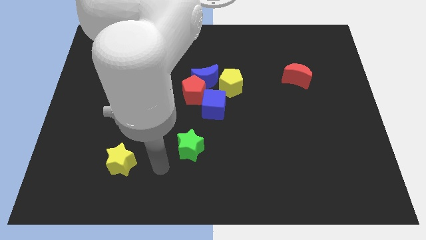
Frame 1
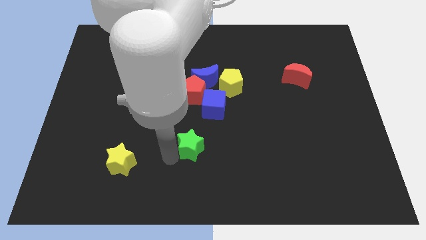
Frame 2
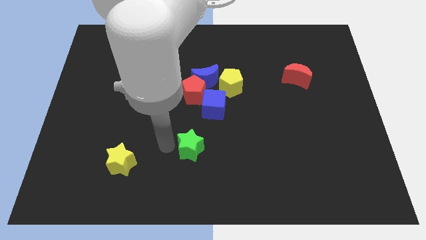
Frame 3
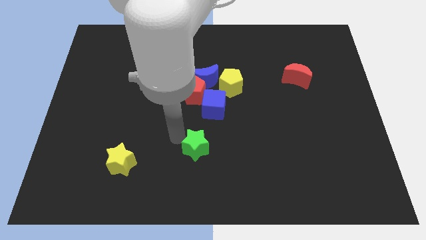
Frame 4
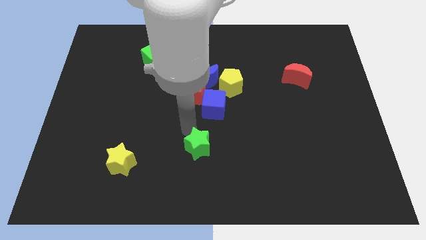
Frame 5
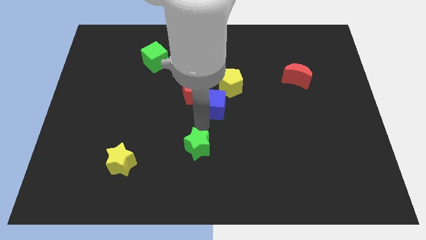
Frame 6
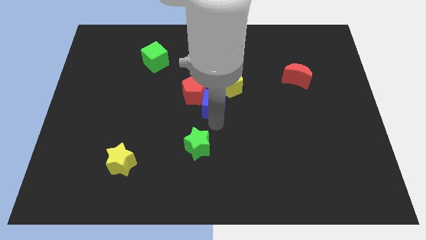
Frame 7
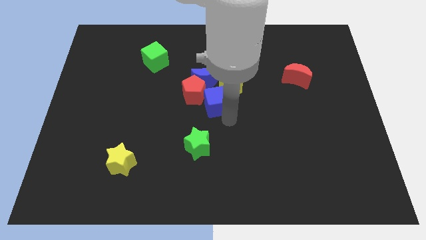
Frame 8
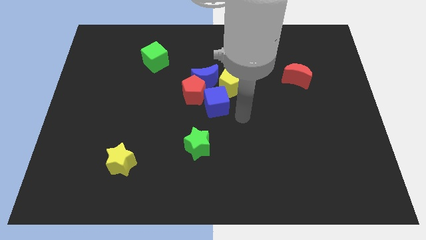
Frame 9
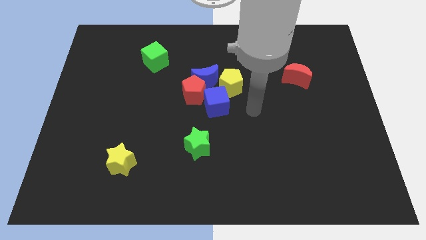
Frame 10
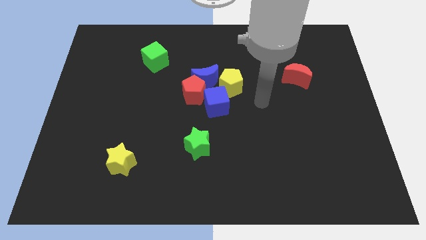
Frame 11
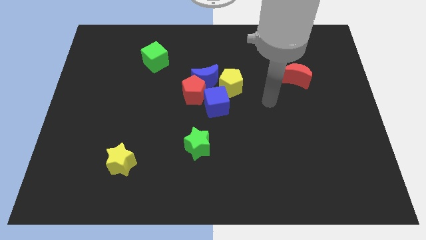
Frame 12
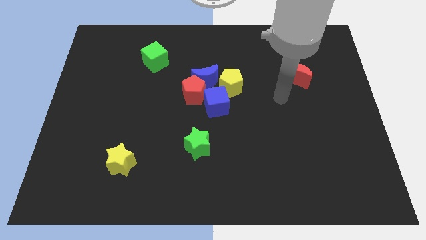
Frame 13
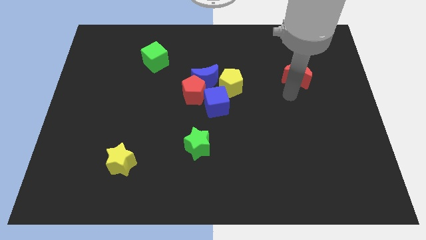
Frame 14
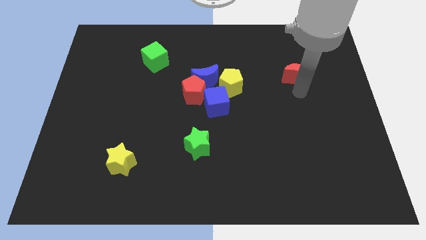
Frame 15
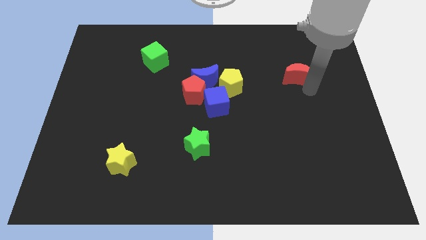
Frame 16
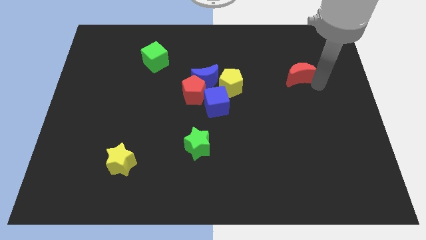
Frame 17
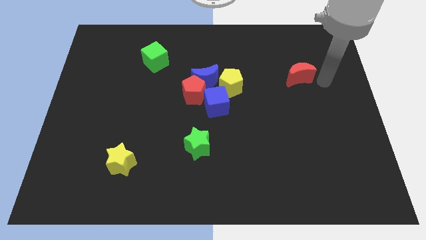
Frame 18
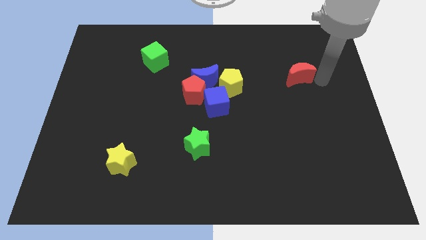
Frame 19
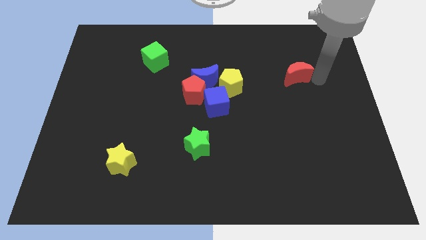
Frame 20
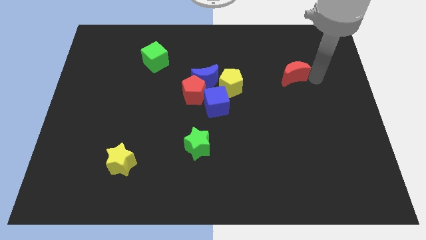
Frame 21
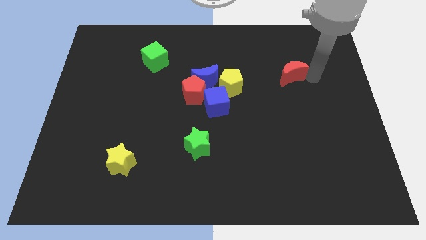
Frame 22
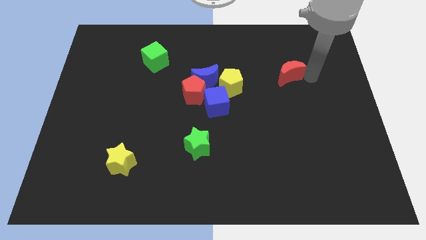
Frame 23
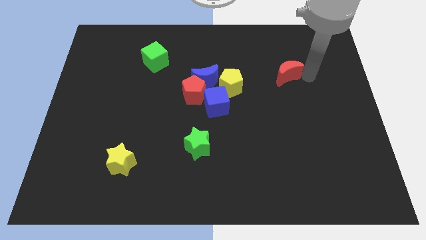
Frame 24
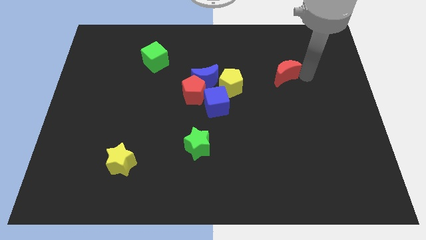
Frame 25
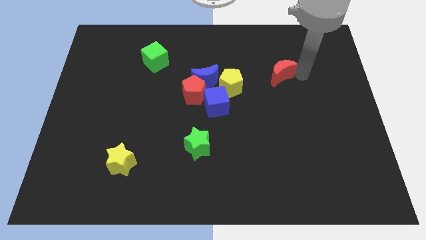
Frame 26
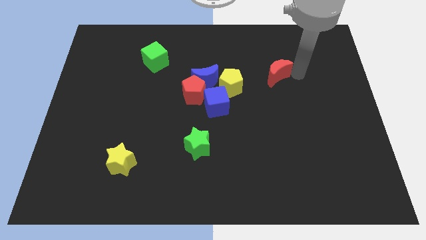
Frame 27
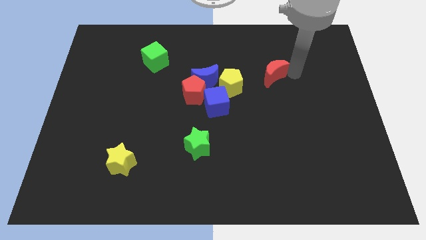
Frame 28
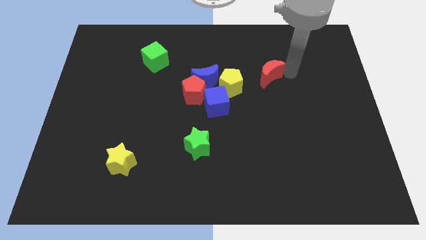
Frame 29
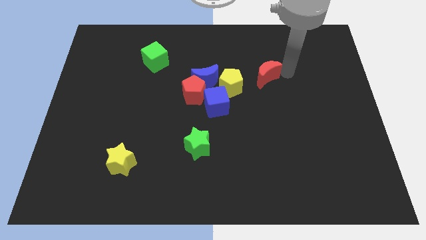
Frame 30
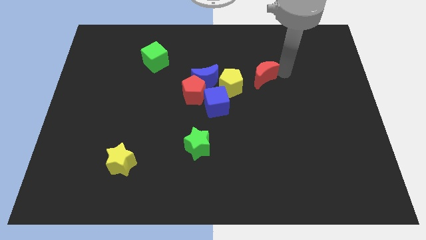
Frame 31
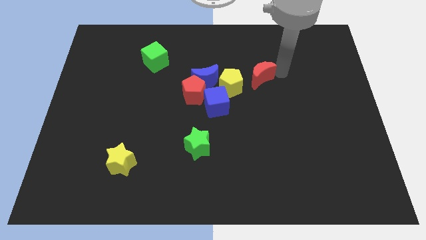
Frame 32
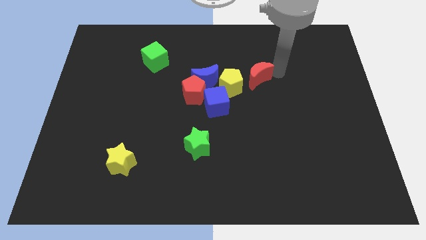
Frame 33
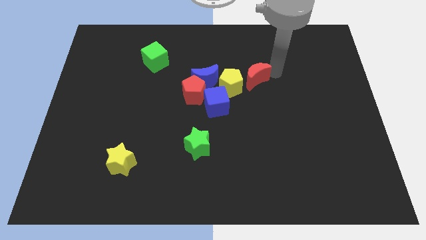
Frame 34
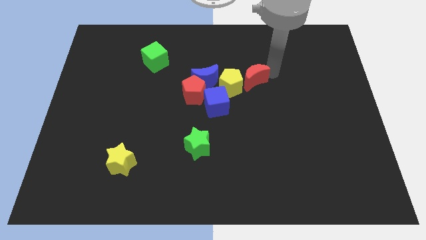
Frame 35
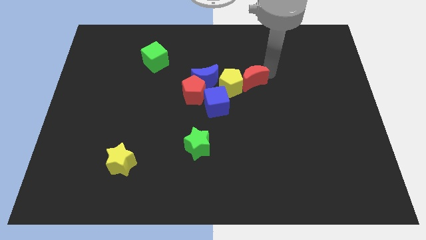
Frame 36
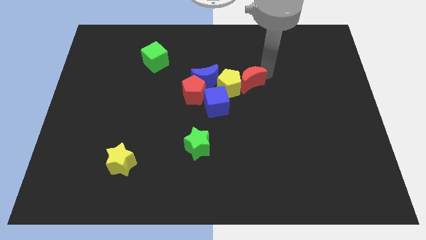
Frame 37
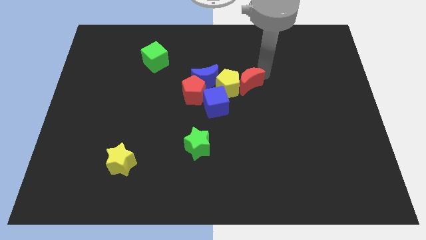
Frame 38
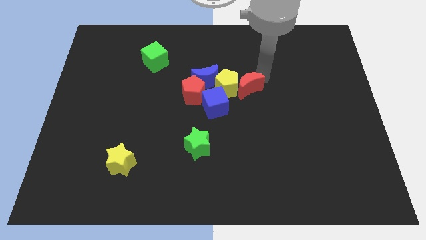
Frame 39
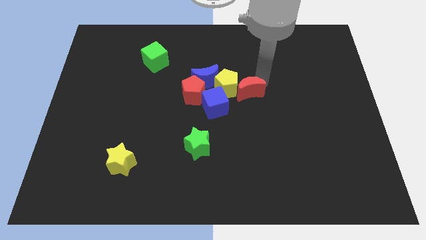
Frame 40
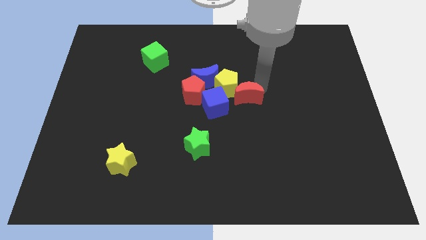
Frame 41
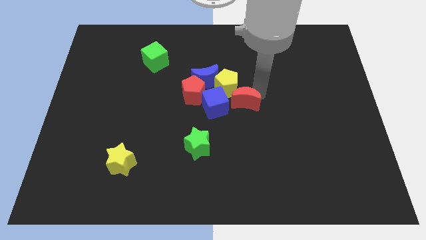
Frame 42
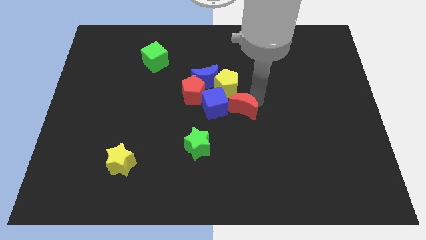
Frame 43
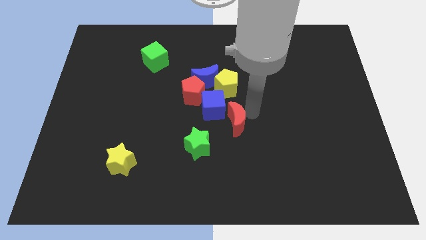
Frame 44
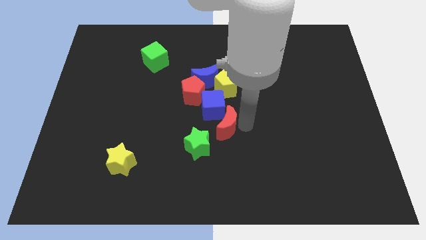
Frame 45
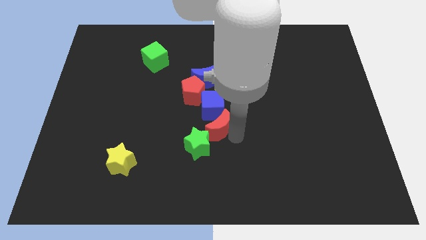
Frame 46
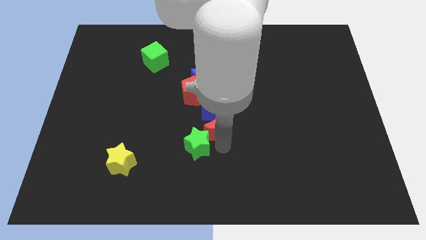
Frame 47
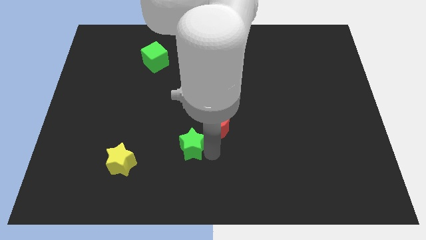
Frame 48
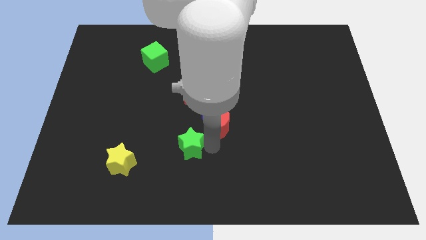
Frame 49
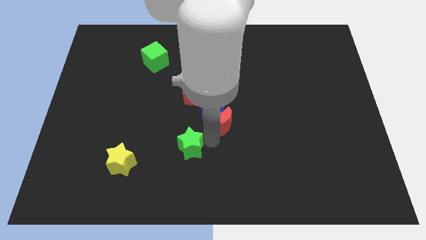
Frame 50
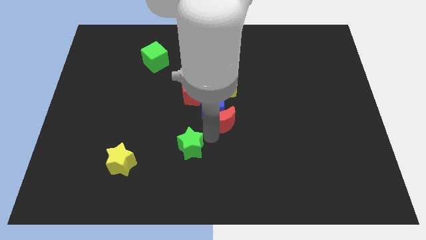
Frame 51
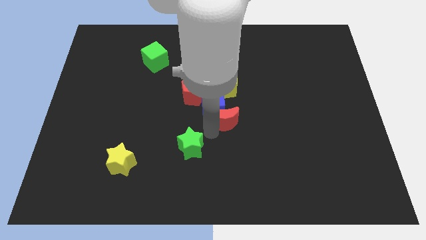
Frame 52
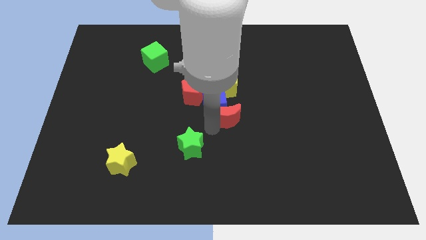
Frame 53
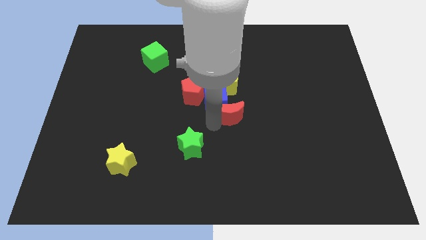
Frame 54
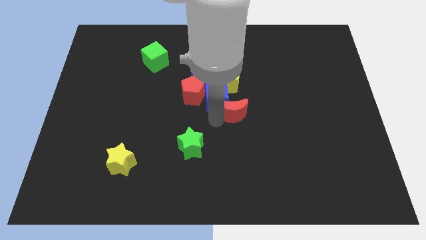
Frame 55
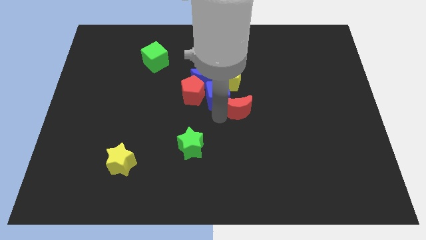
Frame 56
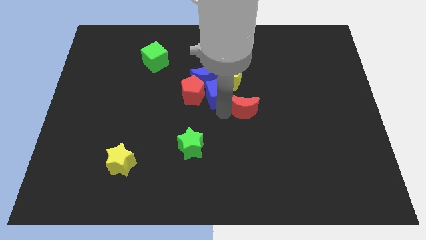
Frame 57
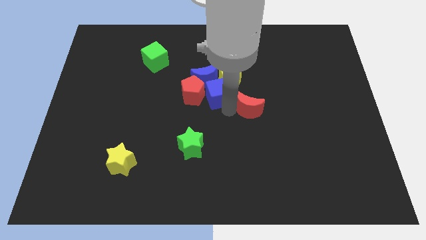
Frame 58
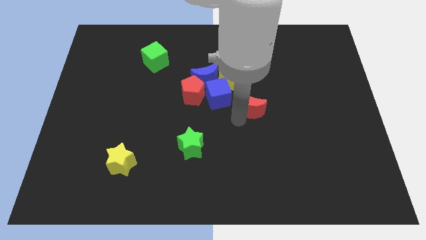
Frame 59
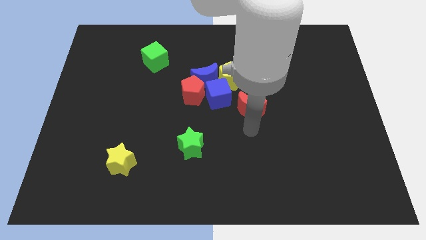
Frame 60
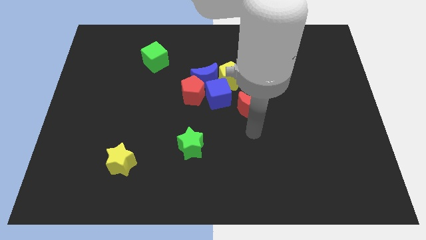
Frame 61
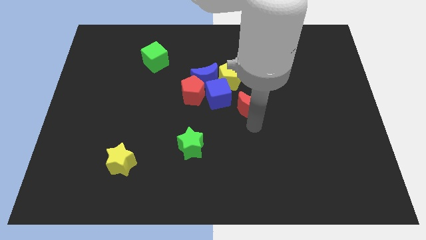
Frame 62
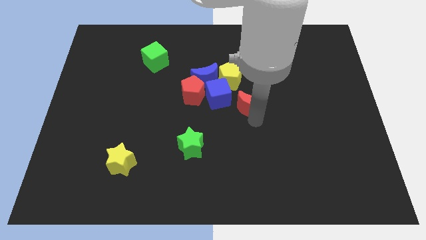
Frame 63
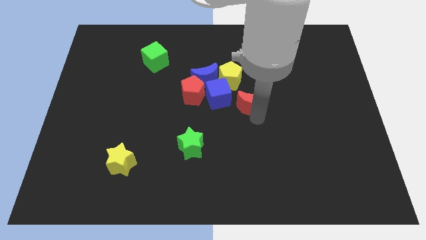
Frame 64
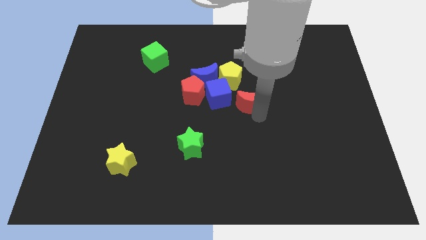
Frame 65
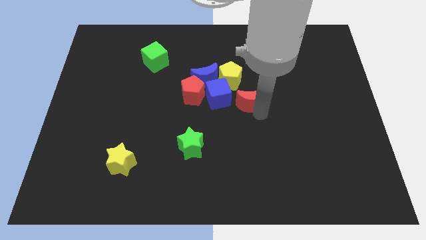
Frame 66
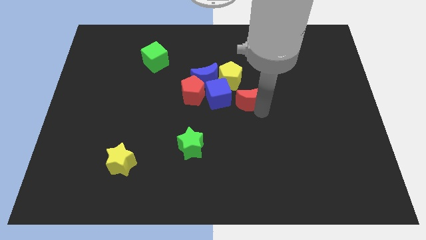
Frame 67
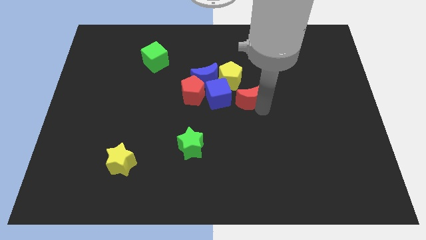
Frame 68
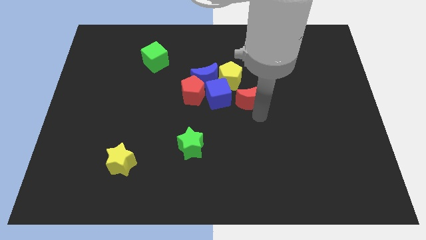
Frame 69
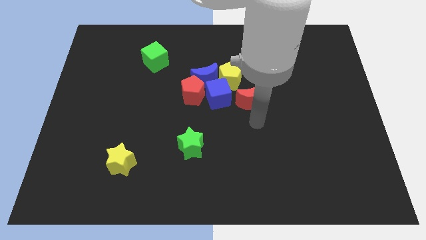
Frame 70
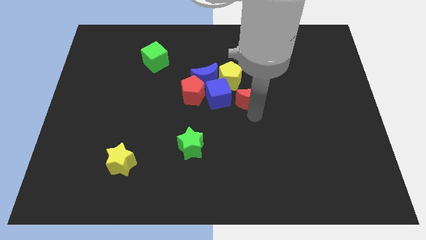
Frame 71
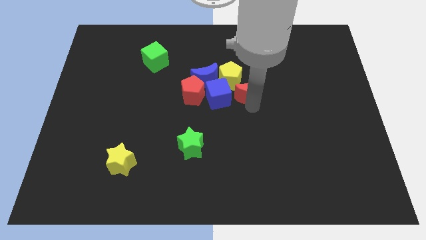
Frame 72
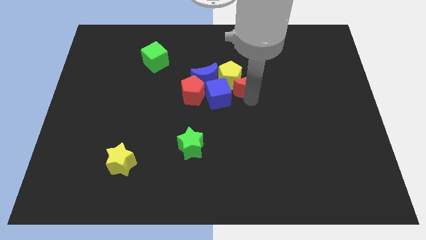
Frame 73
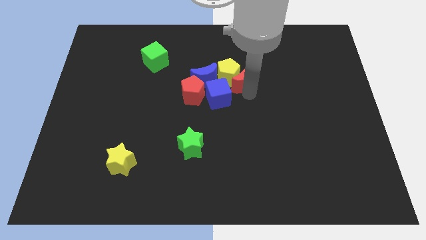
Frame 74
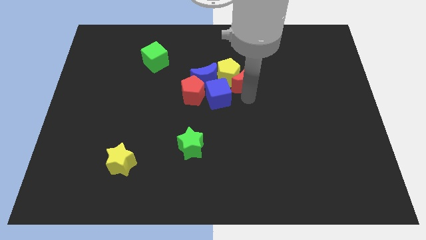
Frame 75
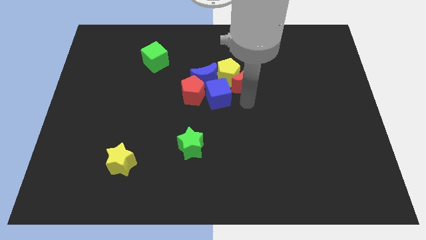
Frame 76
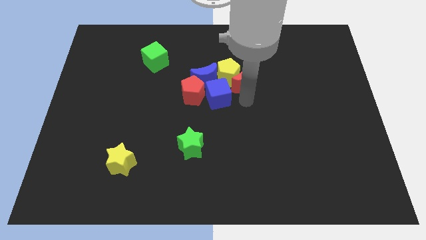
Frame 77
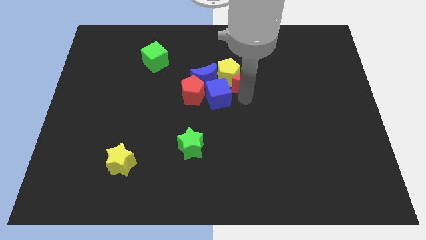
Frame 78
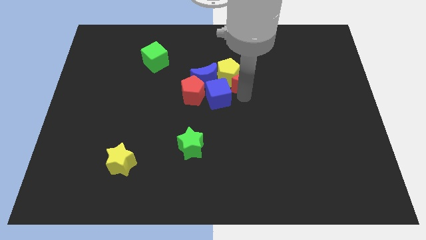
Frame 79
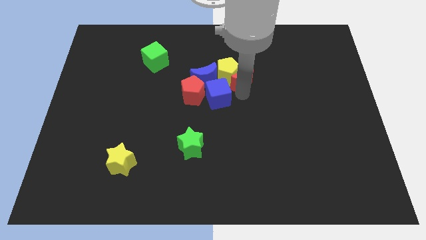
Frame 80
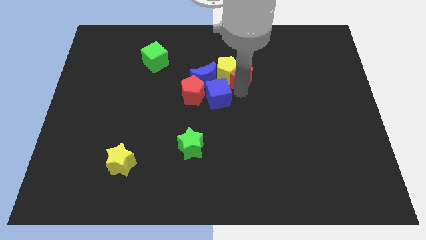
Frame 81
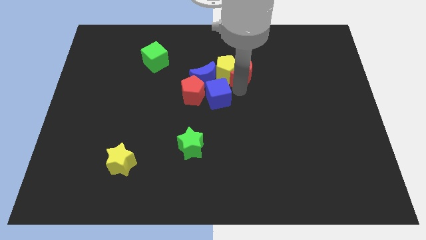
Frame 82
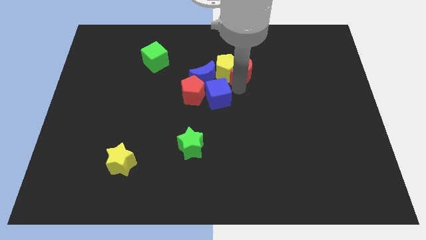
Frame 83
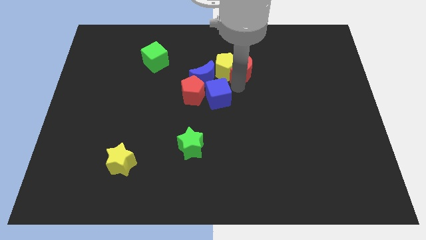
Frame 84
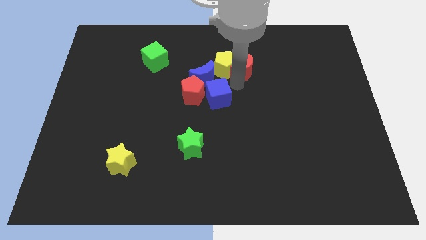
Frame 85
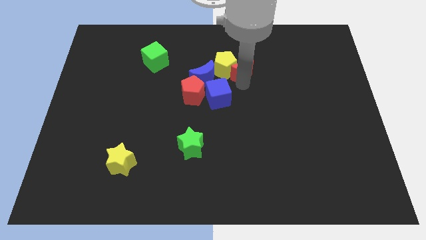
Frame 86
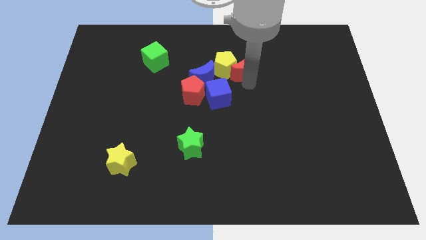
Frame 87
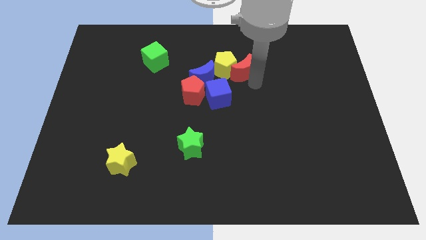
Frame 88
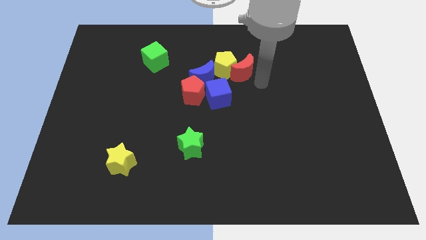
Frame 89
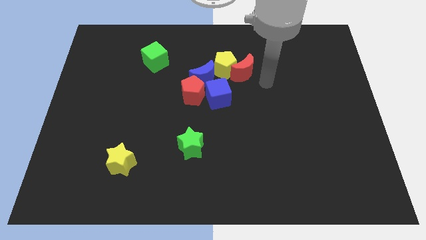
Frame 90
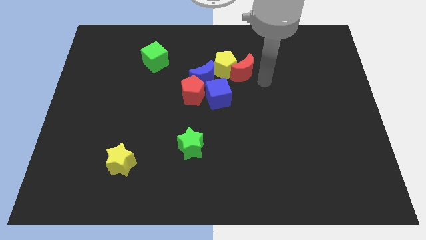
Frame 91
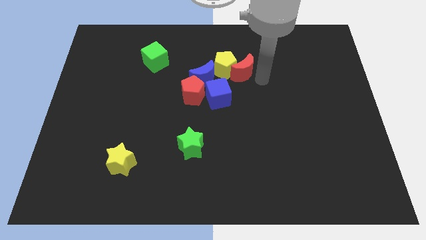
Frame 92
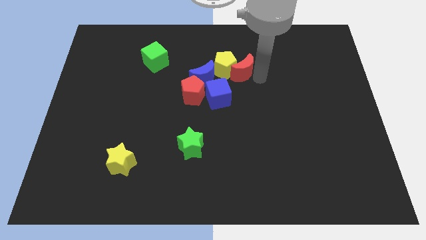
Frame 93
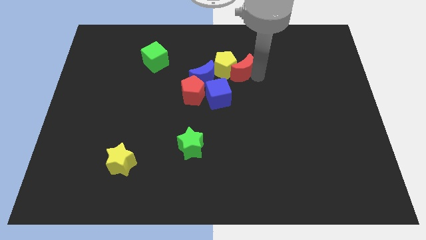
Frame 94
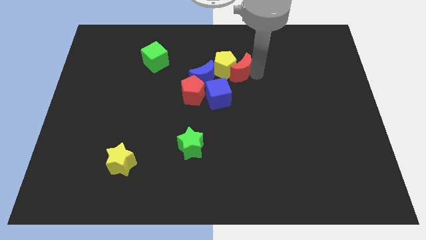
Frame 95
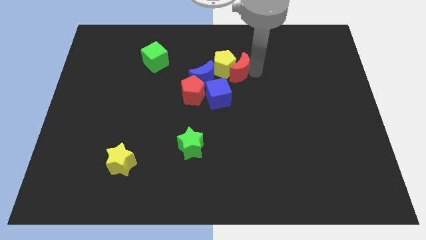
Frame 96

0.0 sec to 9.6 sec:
move the red moon to the top right of the blue moon
